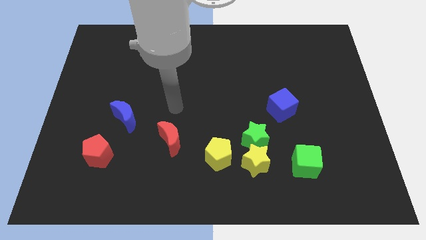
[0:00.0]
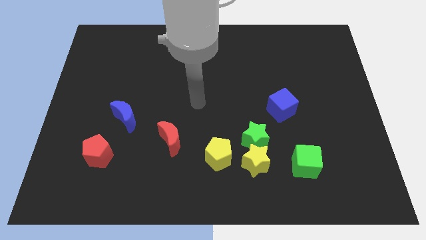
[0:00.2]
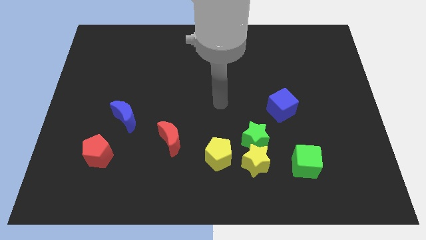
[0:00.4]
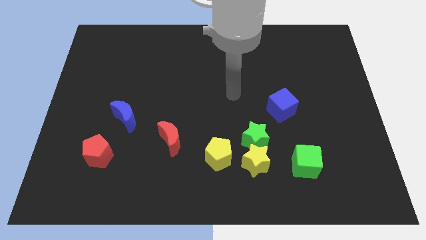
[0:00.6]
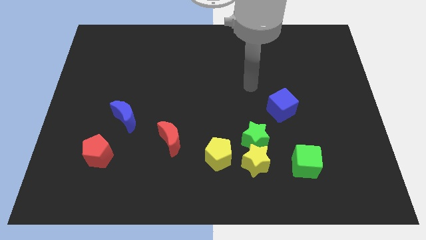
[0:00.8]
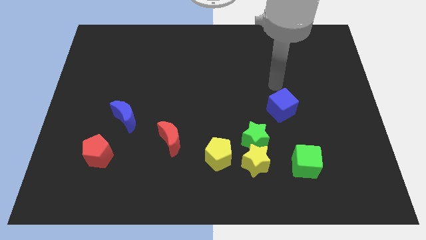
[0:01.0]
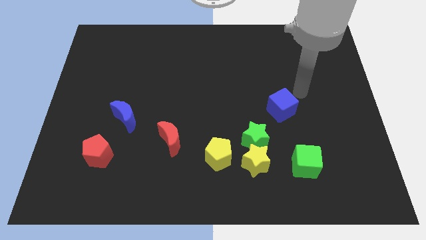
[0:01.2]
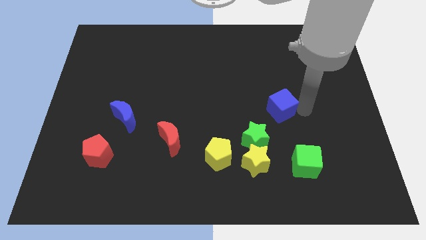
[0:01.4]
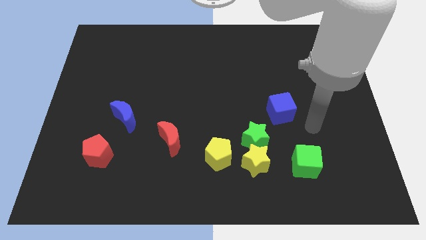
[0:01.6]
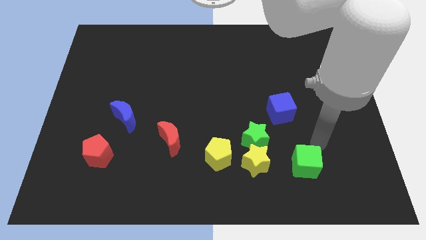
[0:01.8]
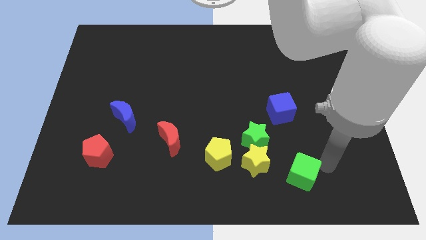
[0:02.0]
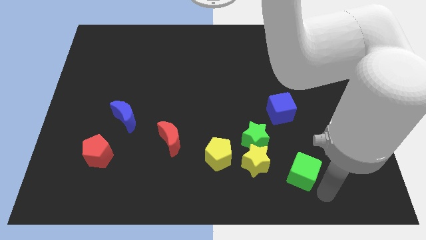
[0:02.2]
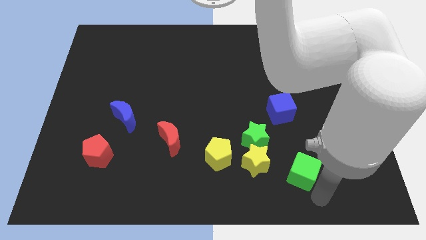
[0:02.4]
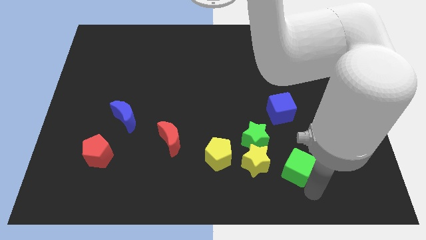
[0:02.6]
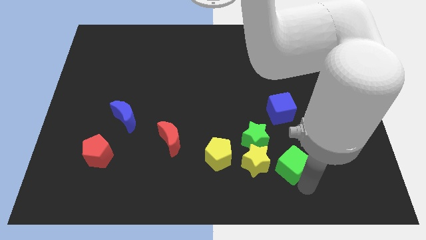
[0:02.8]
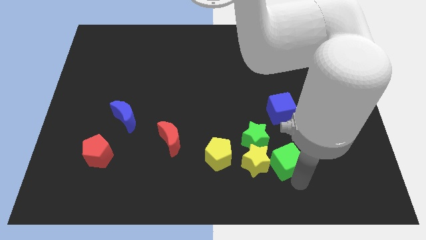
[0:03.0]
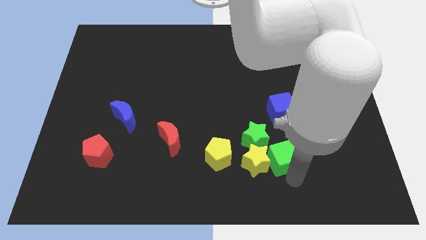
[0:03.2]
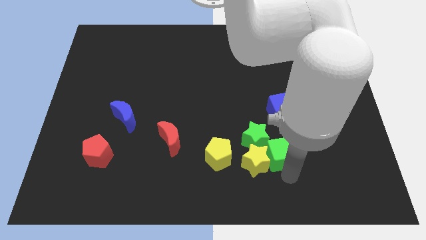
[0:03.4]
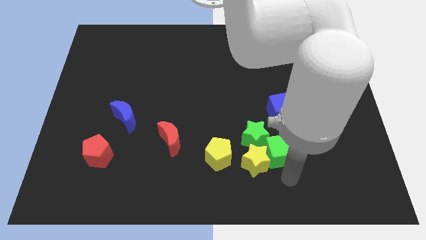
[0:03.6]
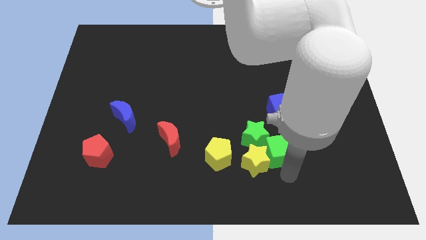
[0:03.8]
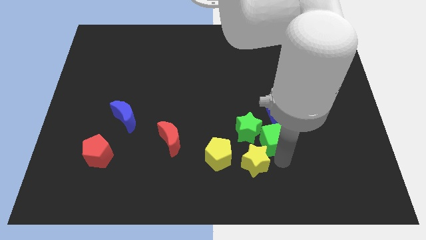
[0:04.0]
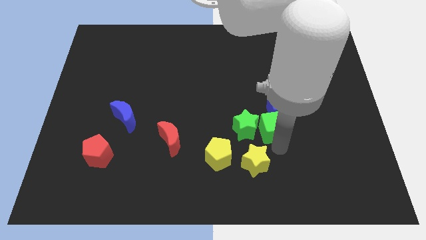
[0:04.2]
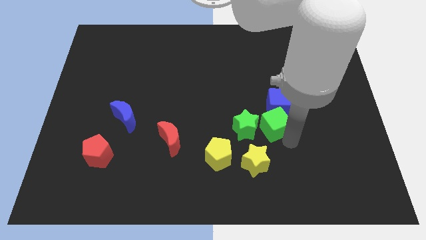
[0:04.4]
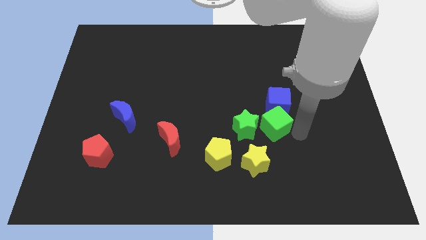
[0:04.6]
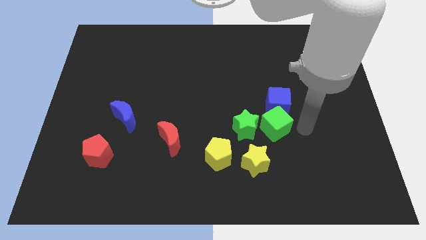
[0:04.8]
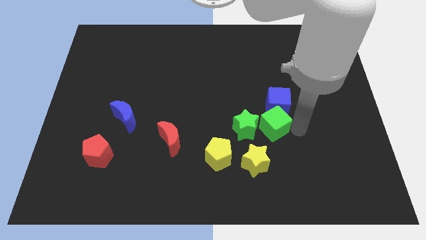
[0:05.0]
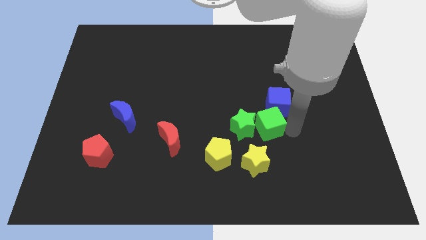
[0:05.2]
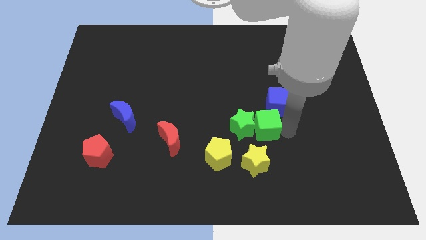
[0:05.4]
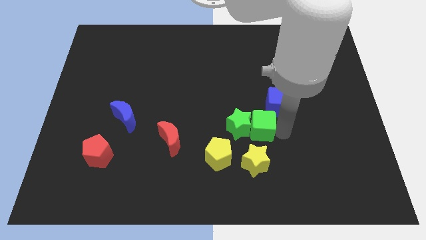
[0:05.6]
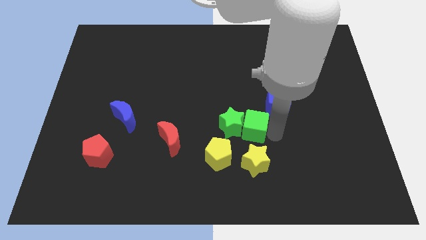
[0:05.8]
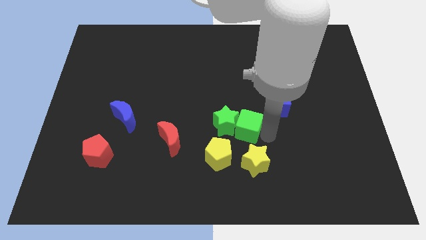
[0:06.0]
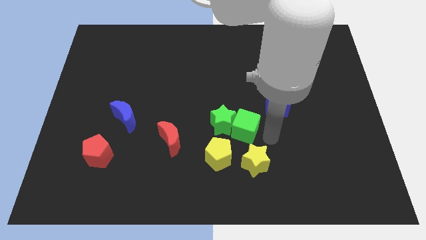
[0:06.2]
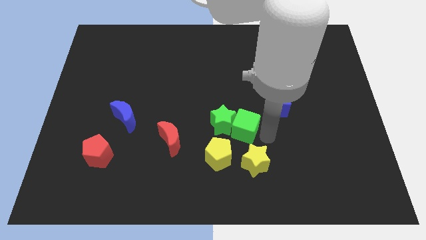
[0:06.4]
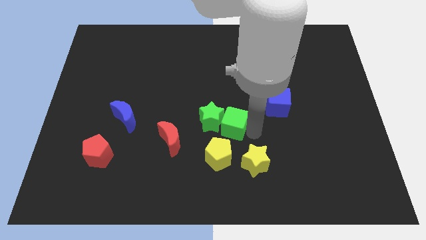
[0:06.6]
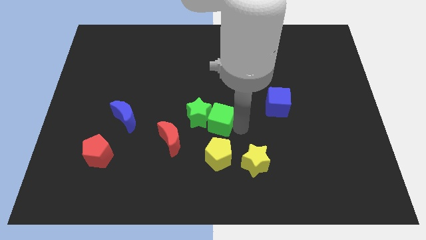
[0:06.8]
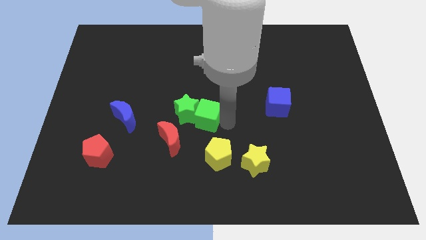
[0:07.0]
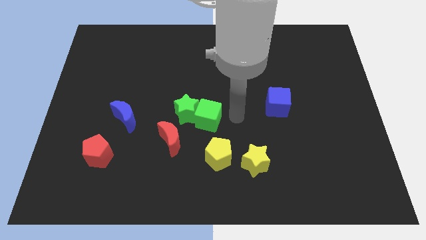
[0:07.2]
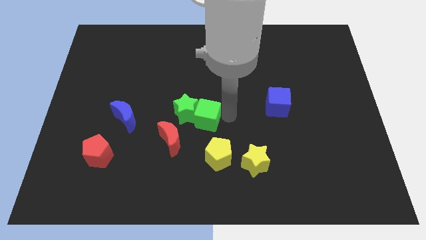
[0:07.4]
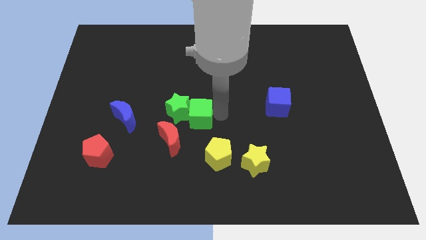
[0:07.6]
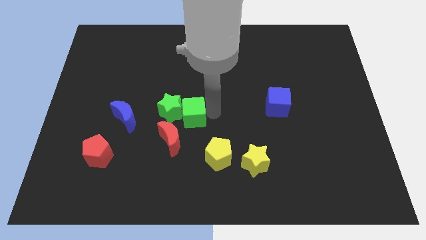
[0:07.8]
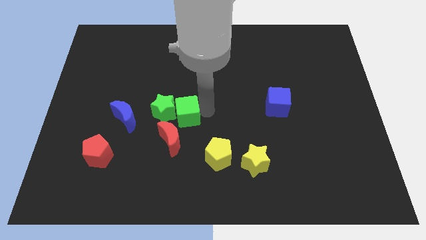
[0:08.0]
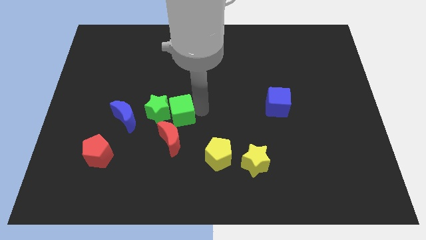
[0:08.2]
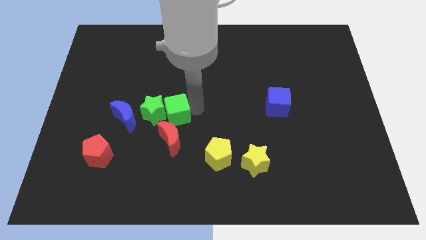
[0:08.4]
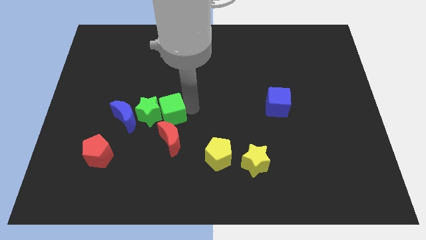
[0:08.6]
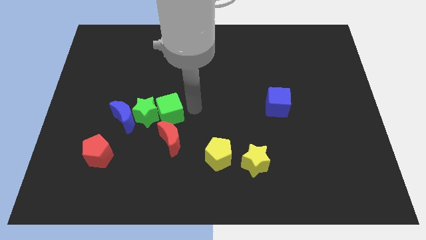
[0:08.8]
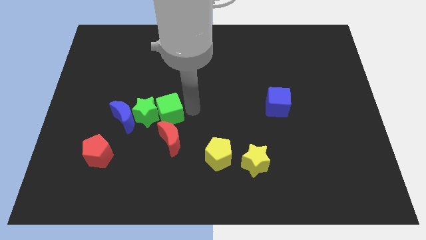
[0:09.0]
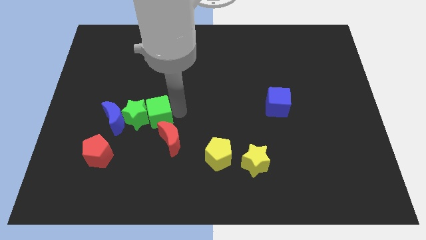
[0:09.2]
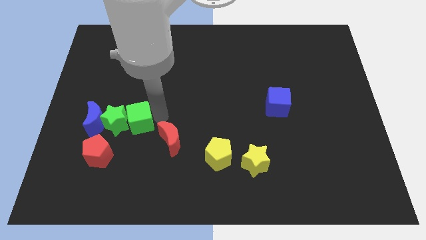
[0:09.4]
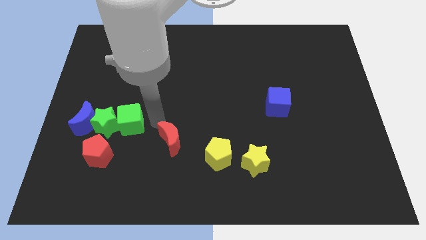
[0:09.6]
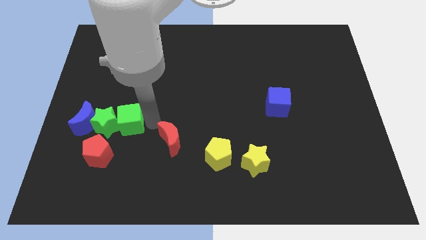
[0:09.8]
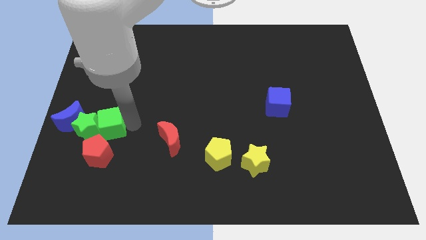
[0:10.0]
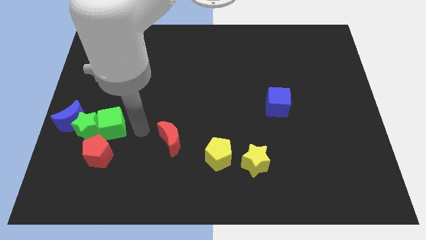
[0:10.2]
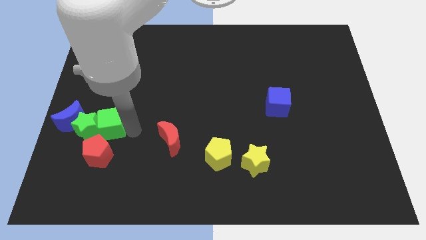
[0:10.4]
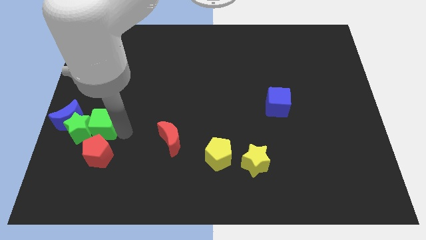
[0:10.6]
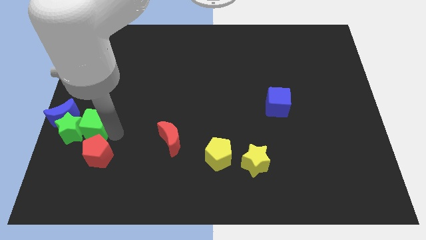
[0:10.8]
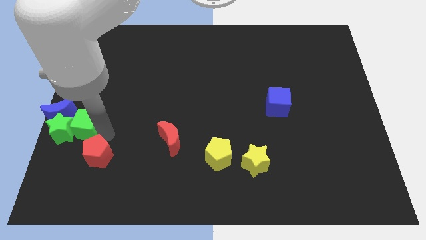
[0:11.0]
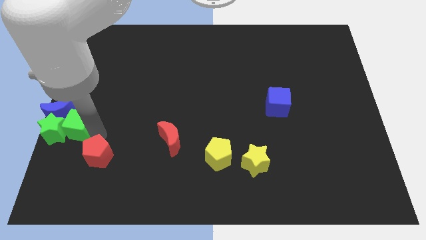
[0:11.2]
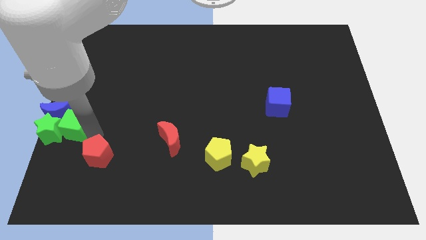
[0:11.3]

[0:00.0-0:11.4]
slide the green cube next to the blue moon
